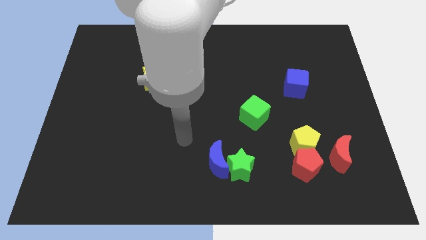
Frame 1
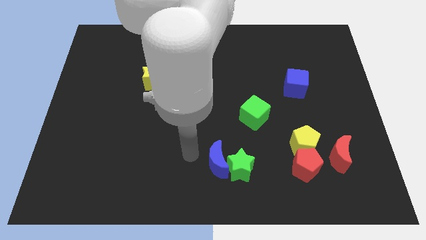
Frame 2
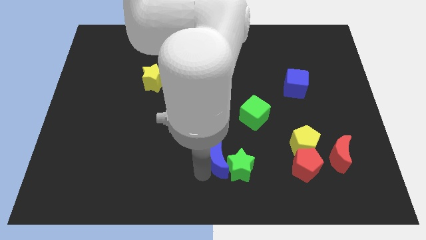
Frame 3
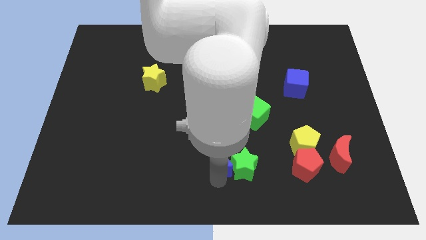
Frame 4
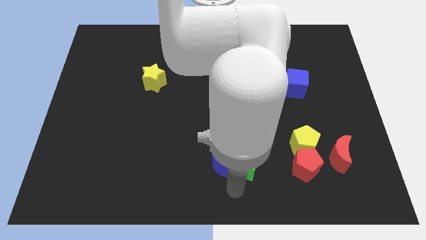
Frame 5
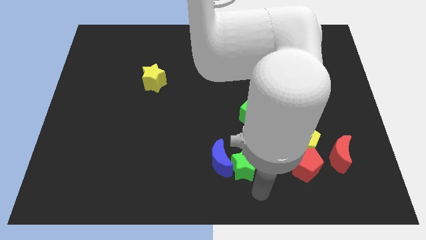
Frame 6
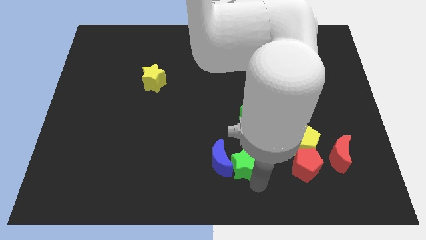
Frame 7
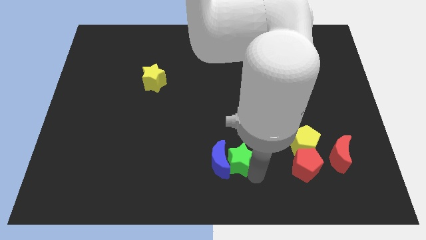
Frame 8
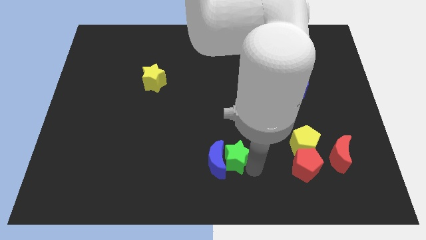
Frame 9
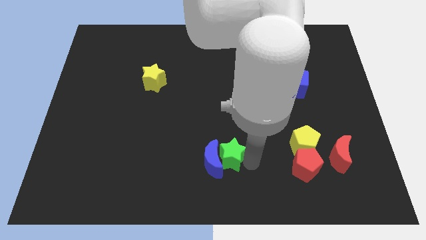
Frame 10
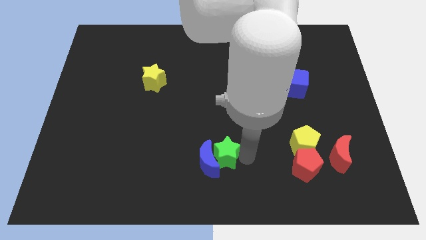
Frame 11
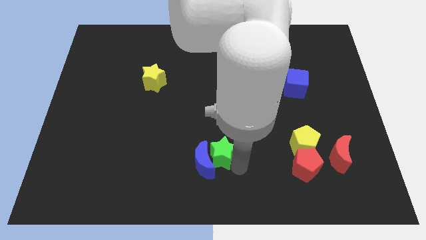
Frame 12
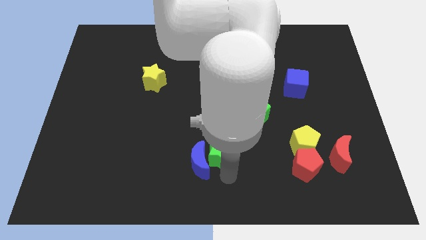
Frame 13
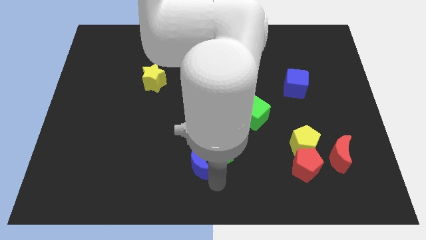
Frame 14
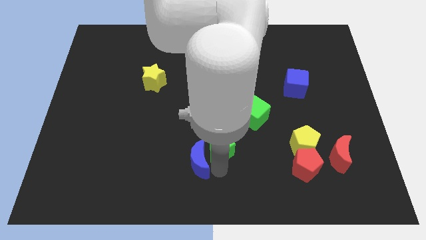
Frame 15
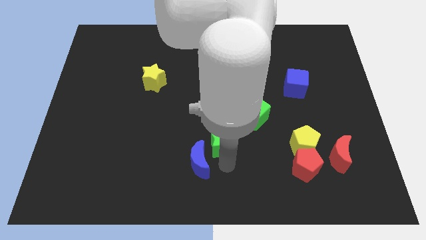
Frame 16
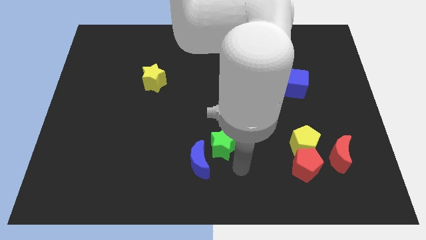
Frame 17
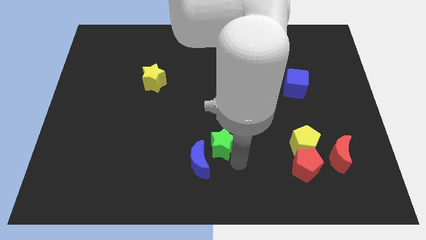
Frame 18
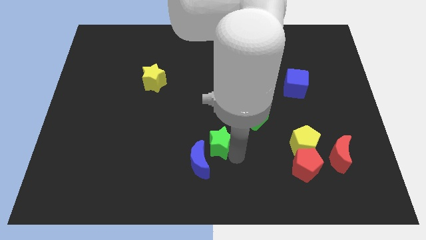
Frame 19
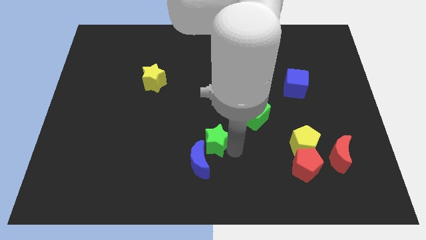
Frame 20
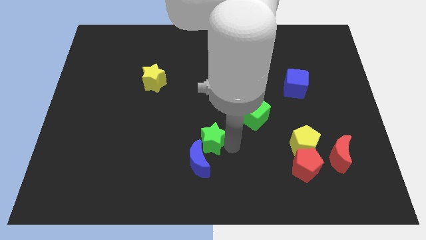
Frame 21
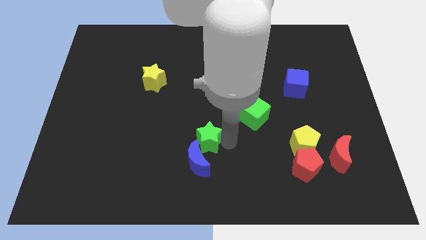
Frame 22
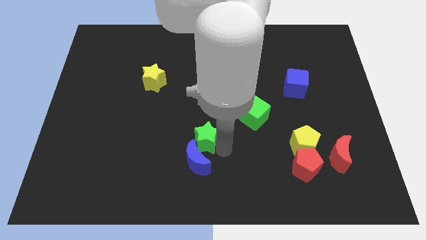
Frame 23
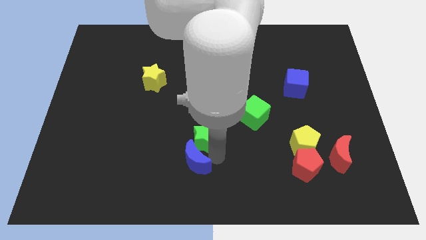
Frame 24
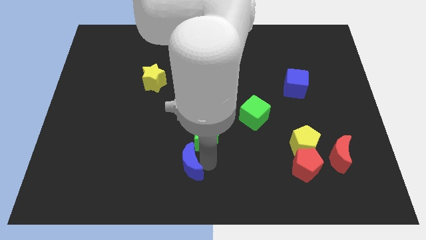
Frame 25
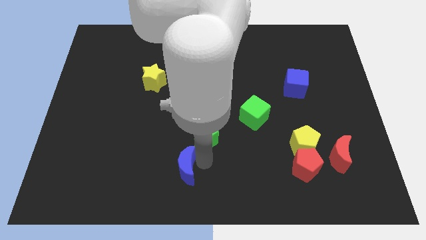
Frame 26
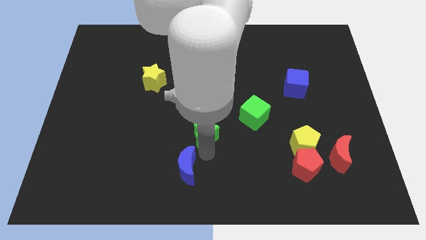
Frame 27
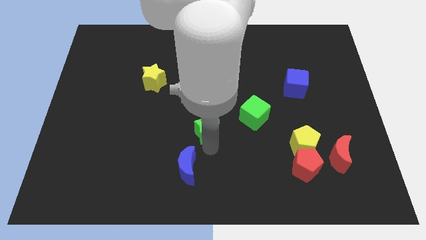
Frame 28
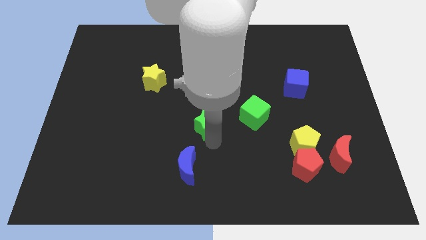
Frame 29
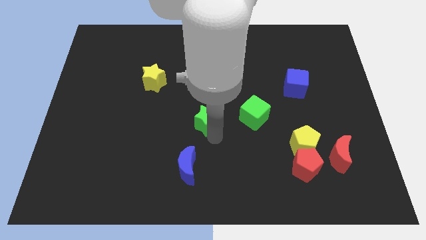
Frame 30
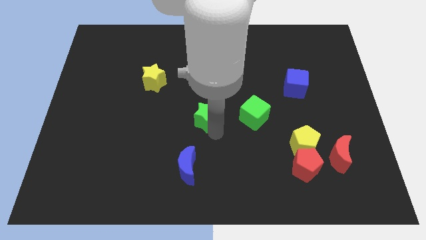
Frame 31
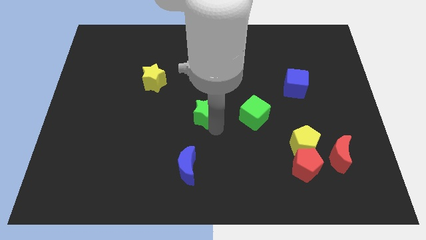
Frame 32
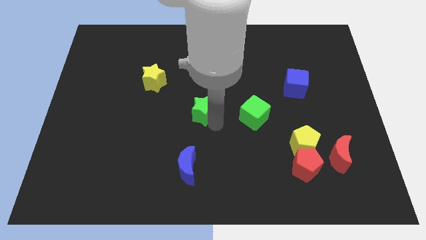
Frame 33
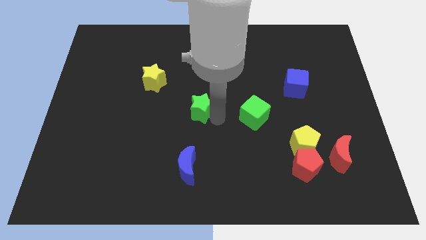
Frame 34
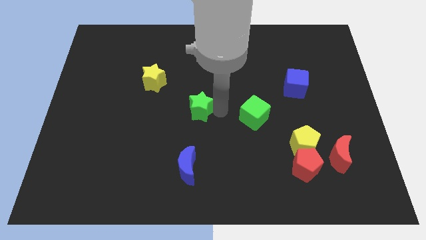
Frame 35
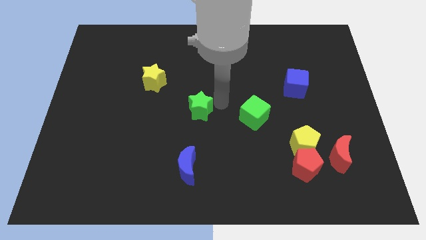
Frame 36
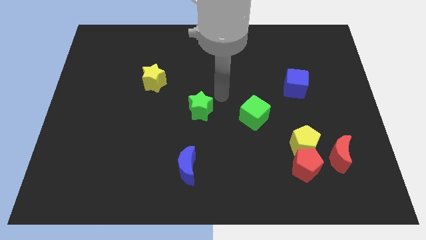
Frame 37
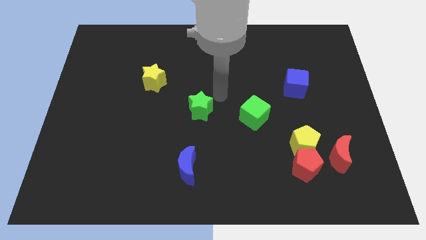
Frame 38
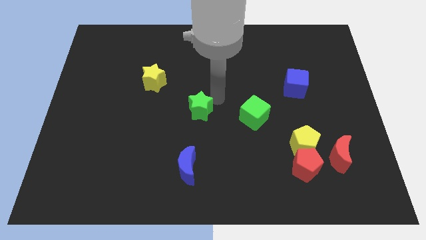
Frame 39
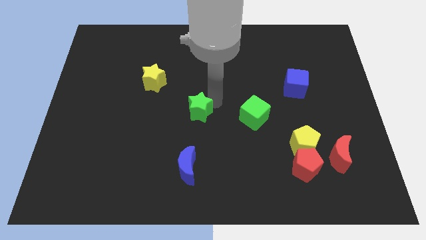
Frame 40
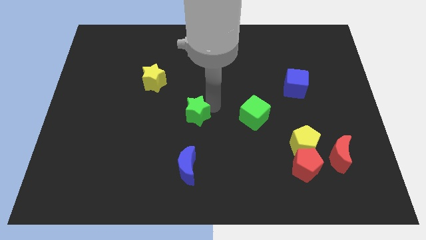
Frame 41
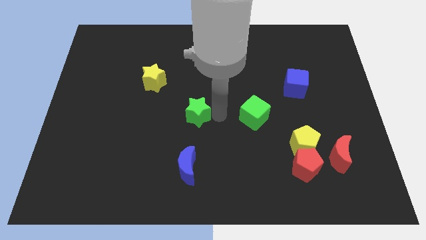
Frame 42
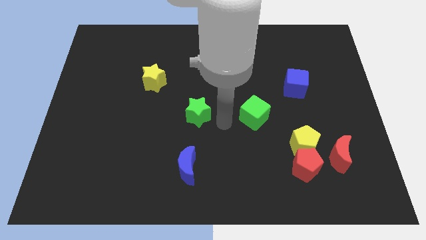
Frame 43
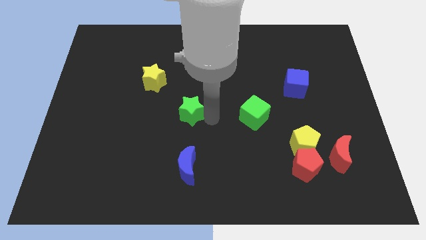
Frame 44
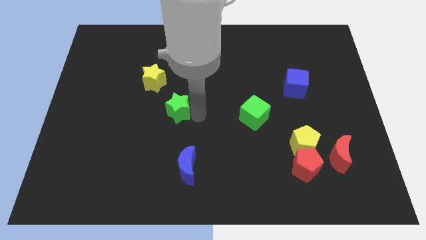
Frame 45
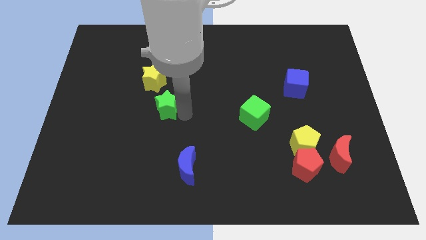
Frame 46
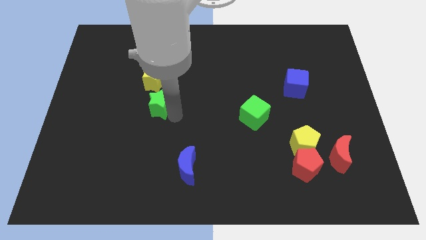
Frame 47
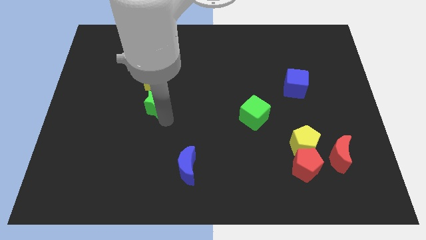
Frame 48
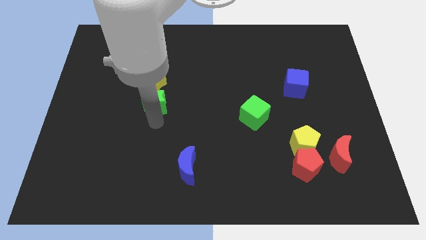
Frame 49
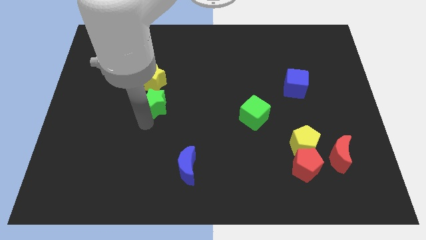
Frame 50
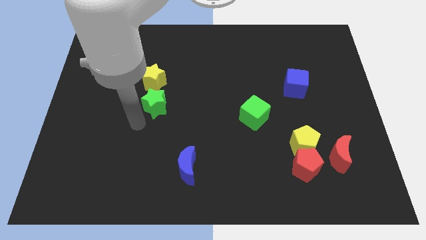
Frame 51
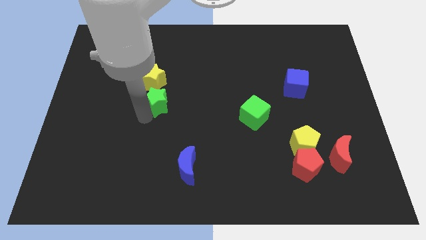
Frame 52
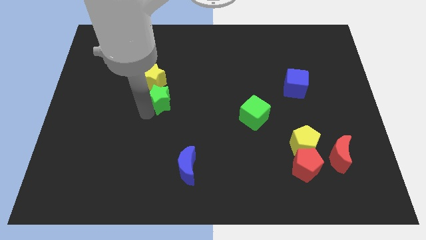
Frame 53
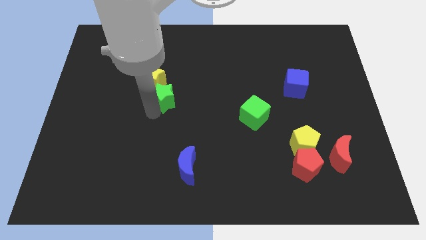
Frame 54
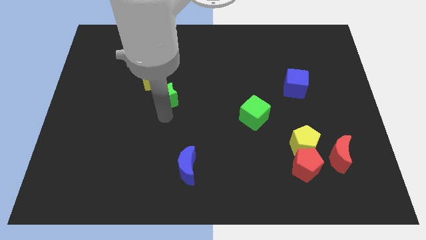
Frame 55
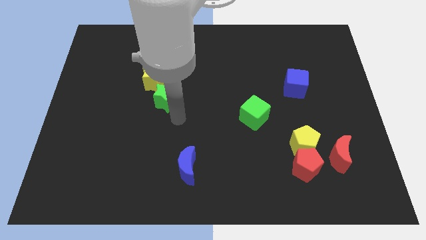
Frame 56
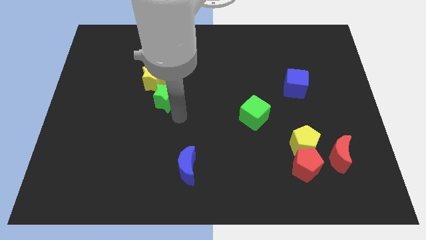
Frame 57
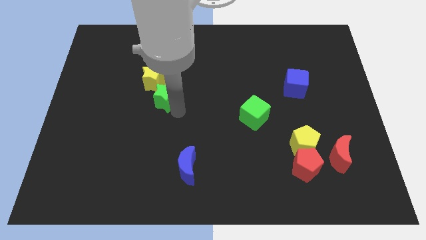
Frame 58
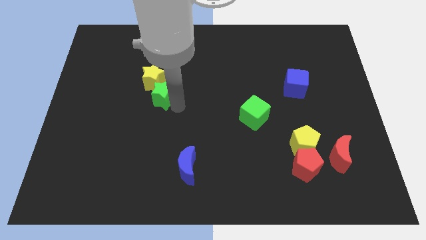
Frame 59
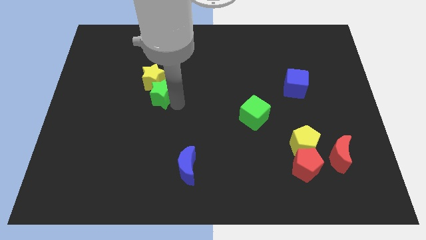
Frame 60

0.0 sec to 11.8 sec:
put the green star next to the yellow star
